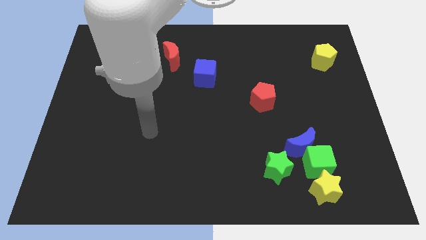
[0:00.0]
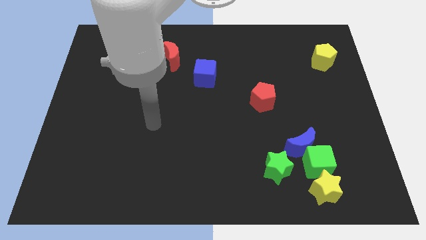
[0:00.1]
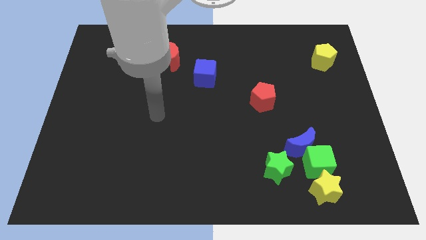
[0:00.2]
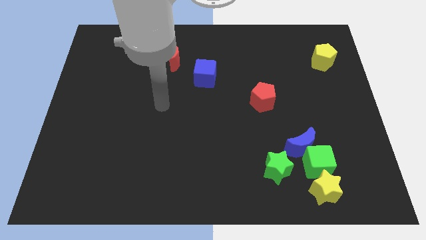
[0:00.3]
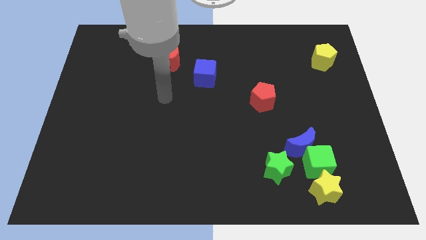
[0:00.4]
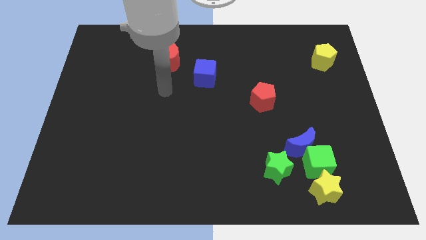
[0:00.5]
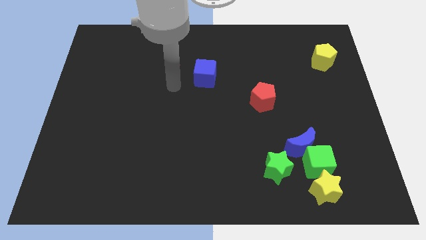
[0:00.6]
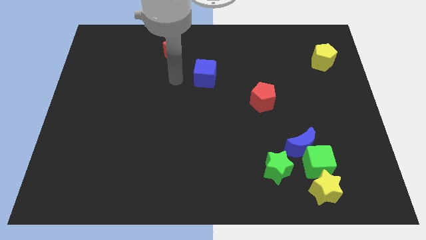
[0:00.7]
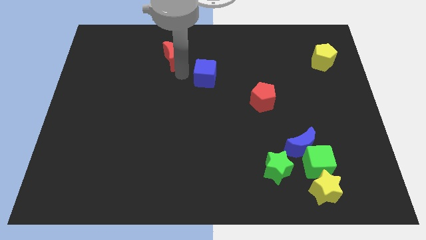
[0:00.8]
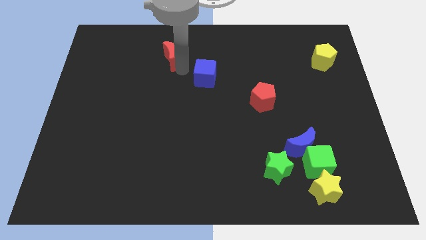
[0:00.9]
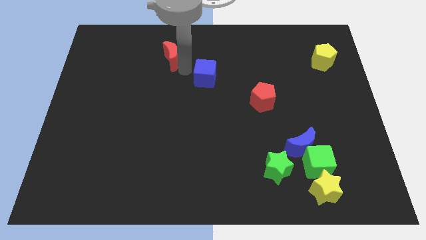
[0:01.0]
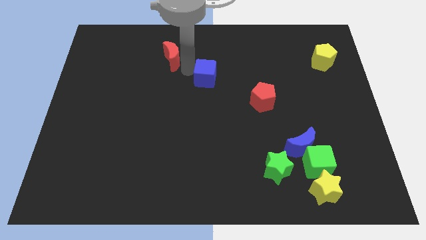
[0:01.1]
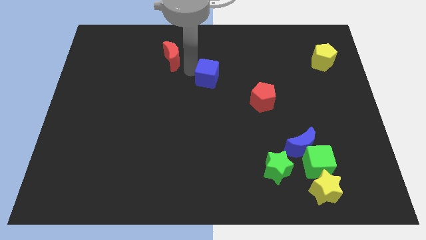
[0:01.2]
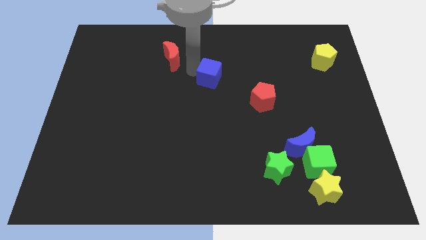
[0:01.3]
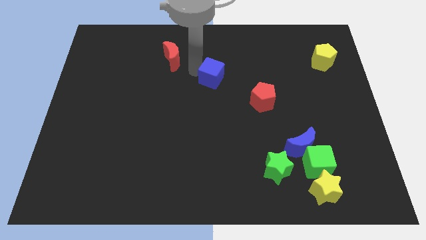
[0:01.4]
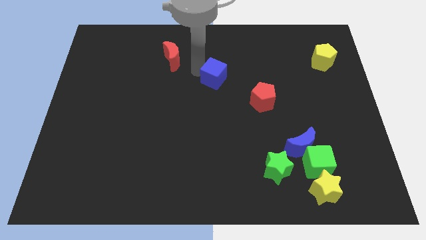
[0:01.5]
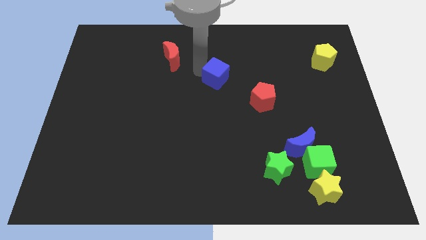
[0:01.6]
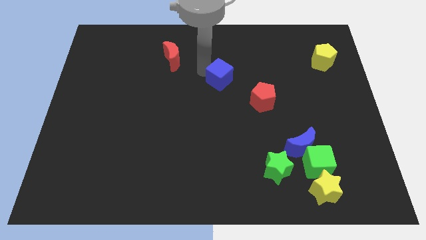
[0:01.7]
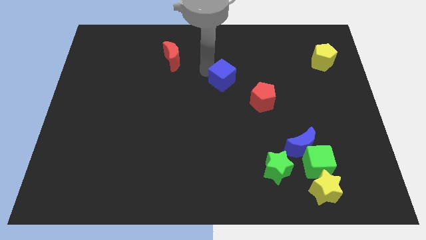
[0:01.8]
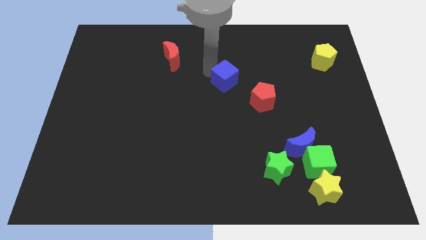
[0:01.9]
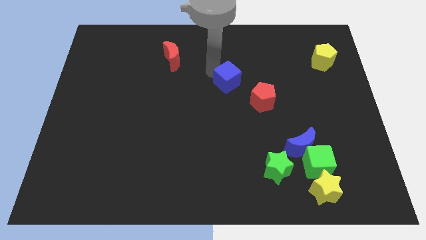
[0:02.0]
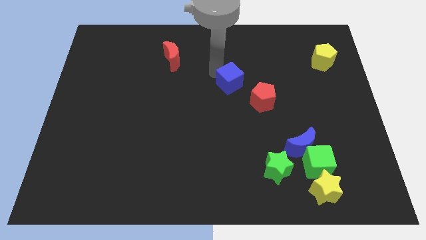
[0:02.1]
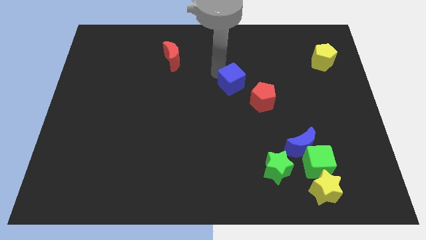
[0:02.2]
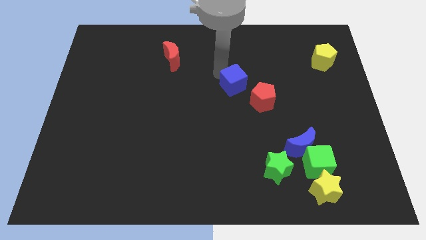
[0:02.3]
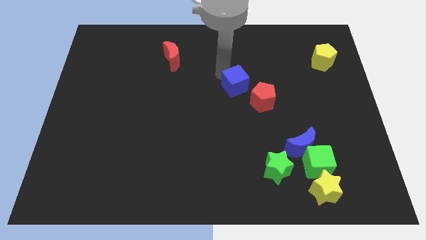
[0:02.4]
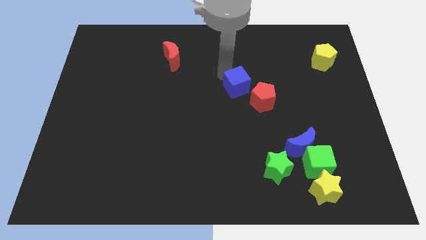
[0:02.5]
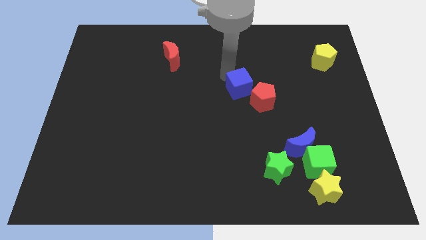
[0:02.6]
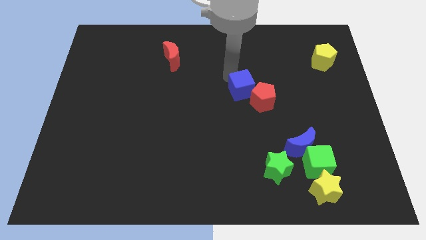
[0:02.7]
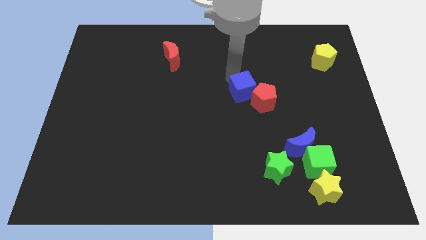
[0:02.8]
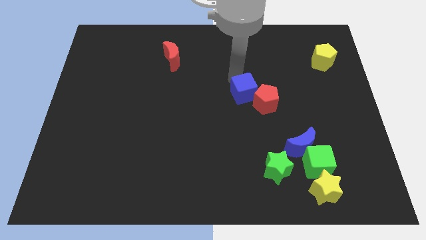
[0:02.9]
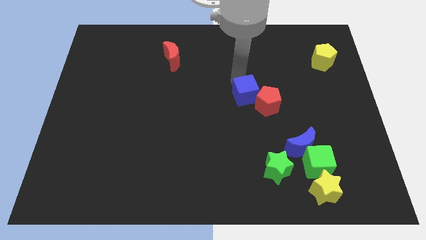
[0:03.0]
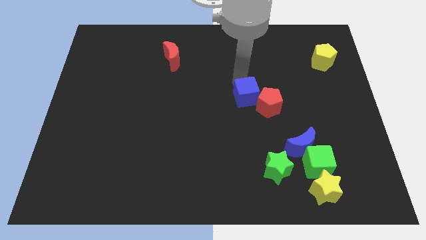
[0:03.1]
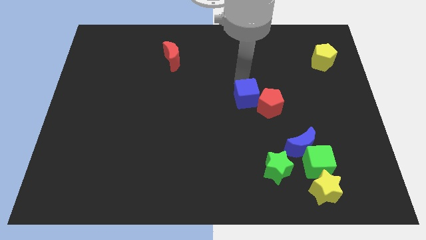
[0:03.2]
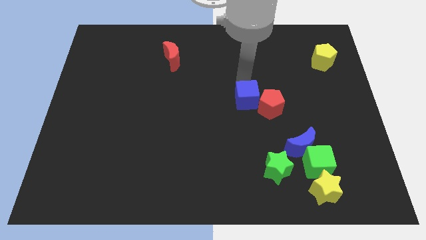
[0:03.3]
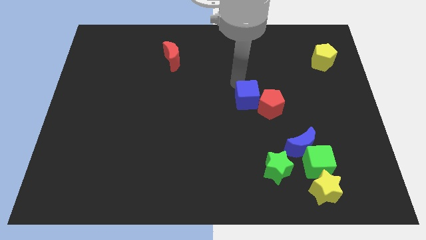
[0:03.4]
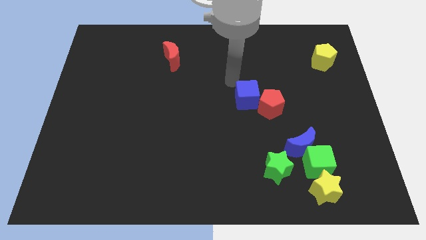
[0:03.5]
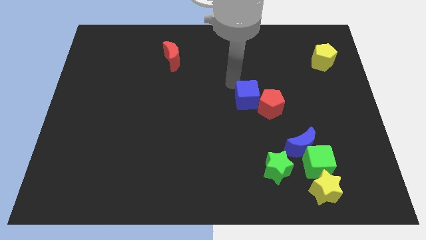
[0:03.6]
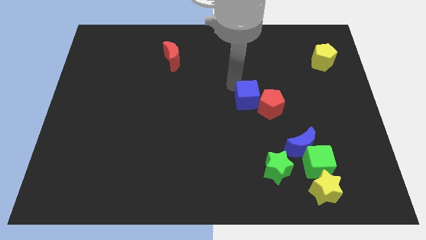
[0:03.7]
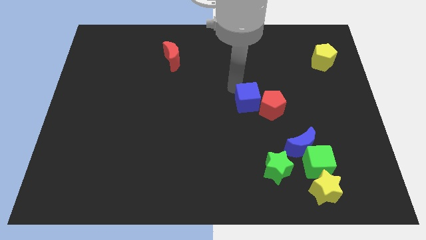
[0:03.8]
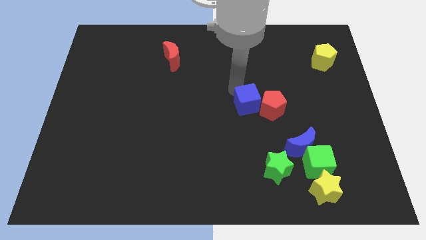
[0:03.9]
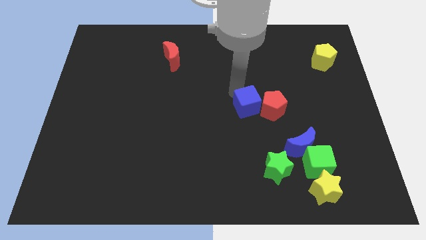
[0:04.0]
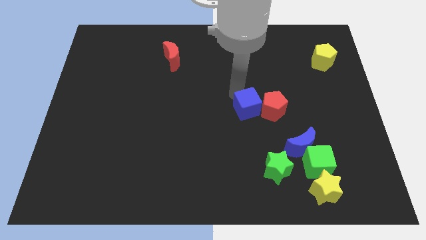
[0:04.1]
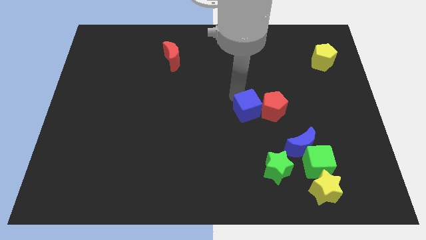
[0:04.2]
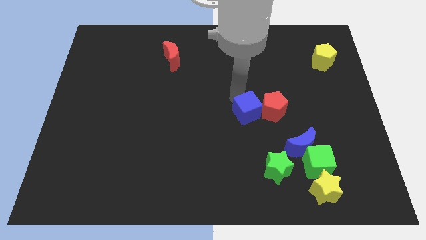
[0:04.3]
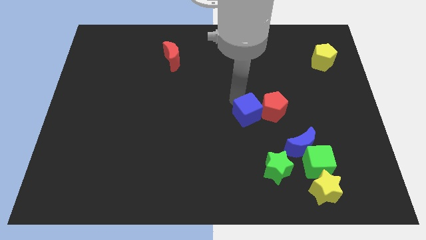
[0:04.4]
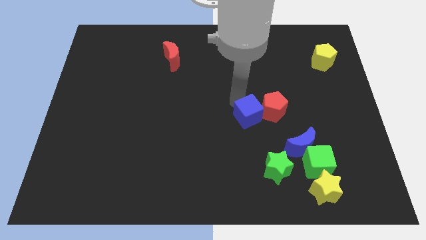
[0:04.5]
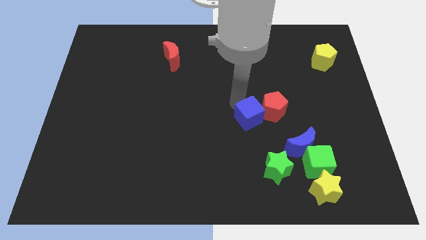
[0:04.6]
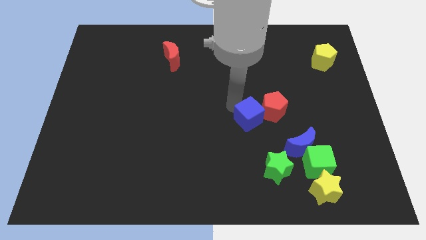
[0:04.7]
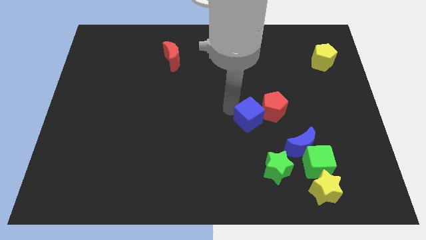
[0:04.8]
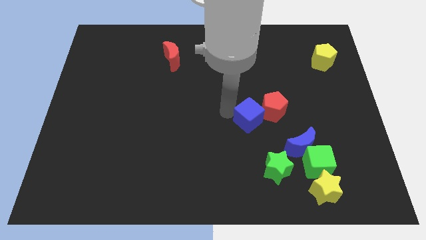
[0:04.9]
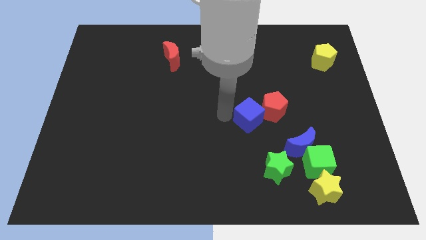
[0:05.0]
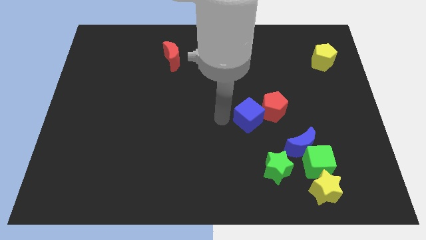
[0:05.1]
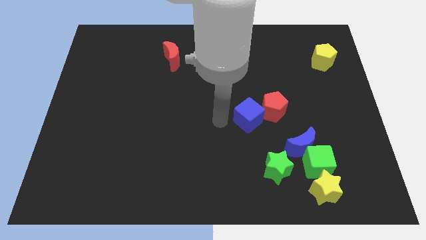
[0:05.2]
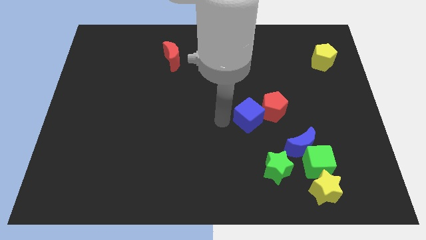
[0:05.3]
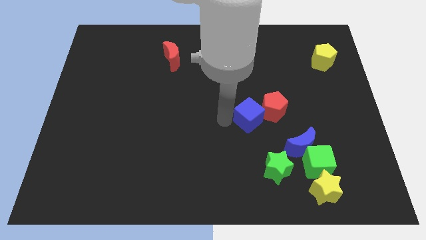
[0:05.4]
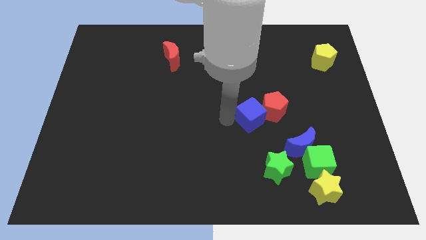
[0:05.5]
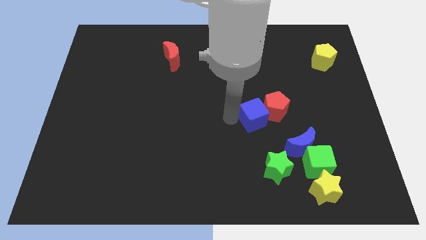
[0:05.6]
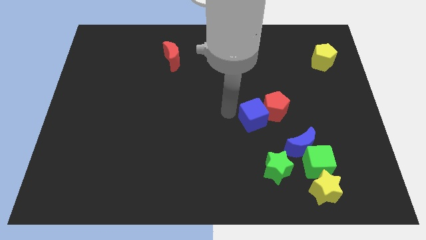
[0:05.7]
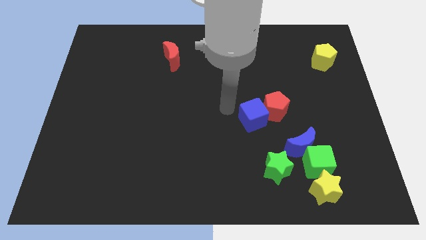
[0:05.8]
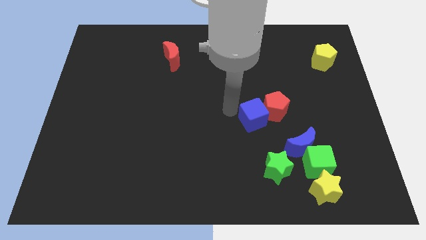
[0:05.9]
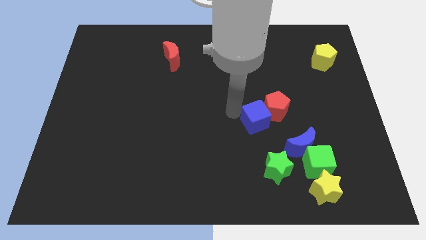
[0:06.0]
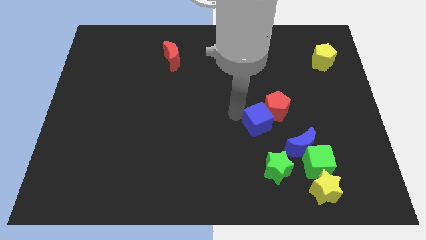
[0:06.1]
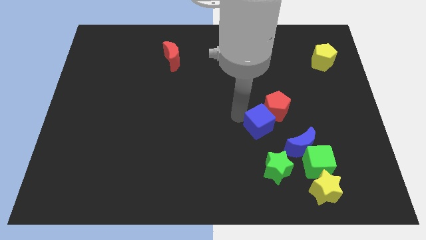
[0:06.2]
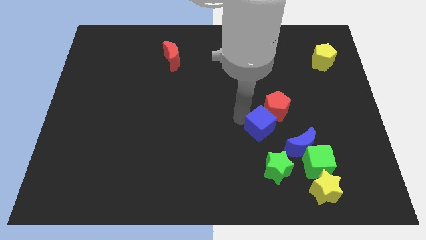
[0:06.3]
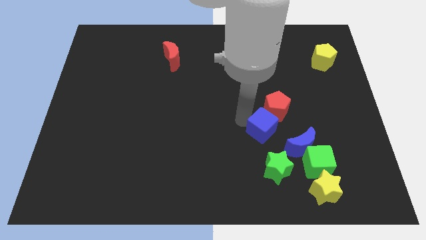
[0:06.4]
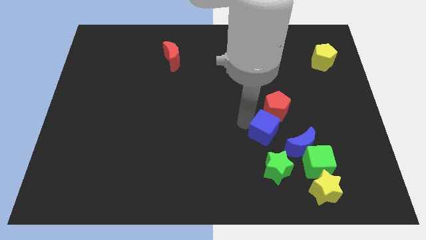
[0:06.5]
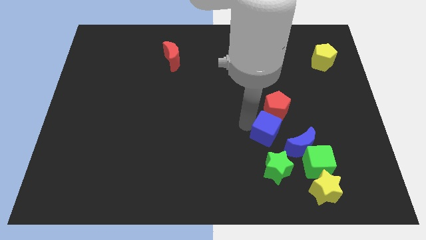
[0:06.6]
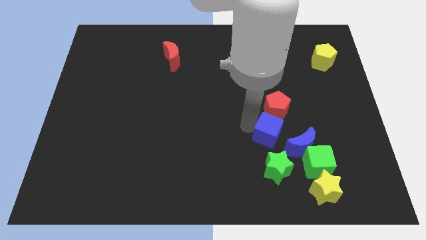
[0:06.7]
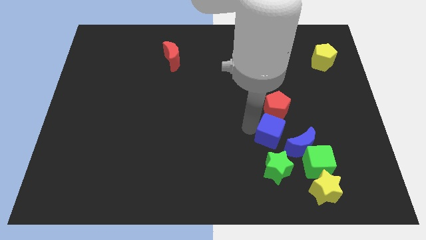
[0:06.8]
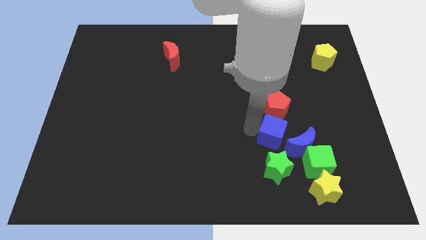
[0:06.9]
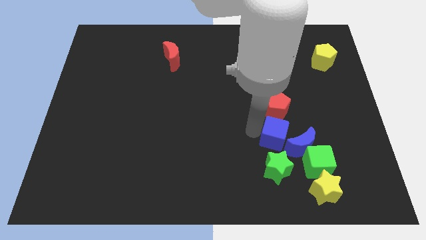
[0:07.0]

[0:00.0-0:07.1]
slide the blue cube close to the blue moon

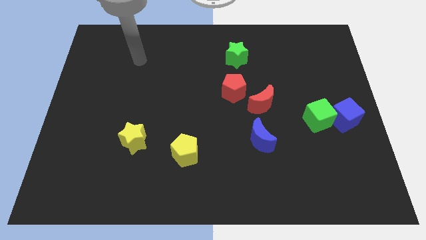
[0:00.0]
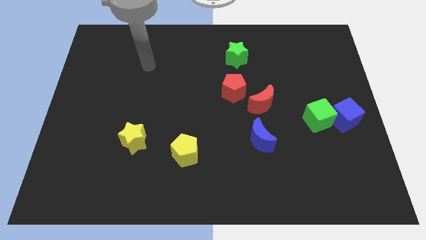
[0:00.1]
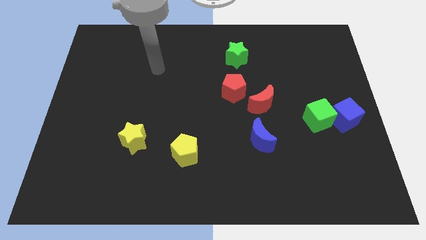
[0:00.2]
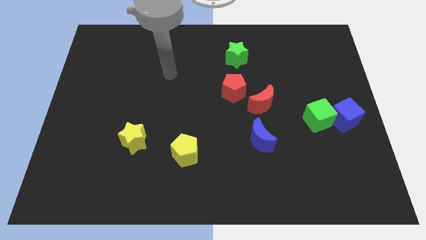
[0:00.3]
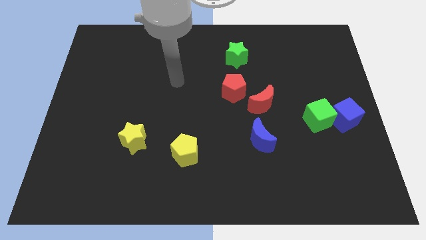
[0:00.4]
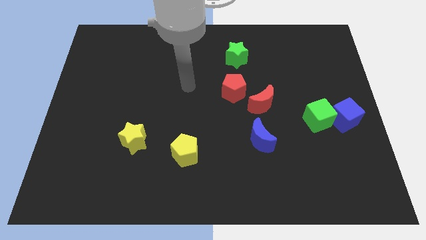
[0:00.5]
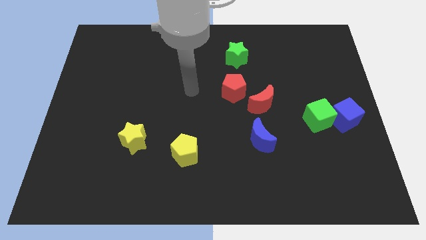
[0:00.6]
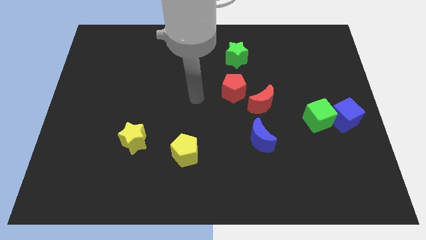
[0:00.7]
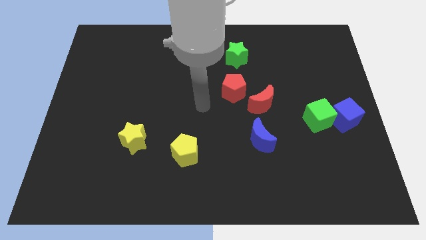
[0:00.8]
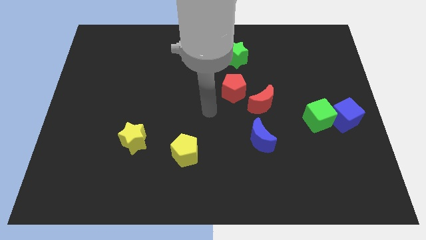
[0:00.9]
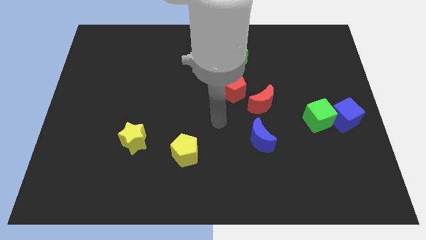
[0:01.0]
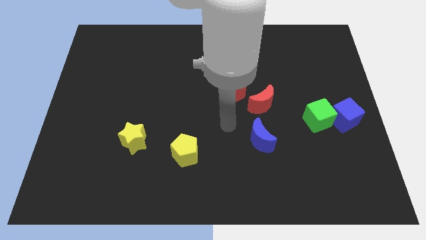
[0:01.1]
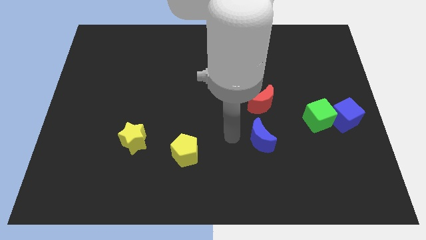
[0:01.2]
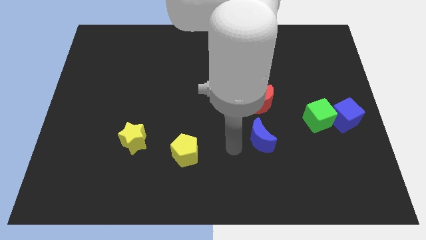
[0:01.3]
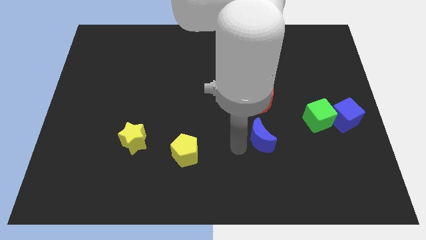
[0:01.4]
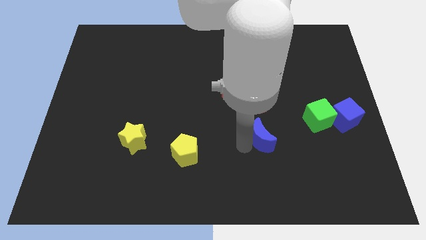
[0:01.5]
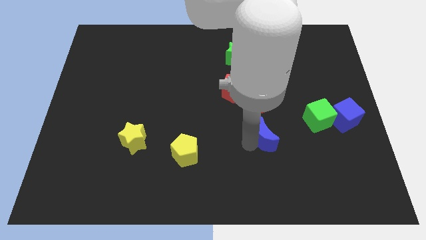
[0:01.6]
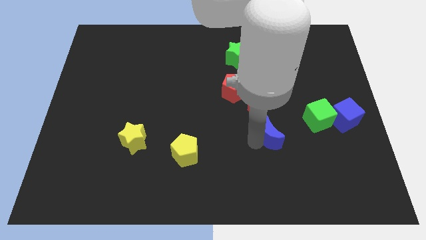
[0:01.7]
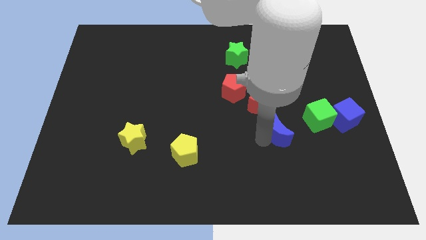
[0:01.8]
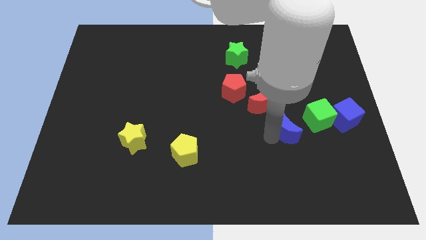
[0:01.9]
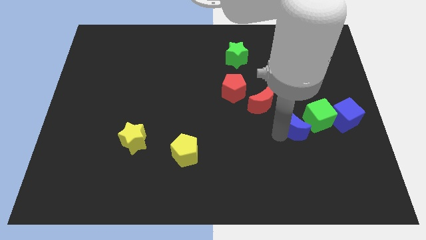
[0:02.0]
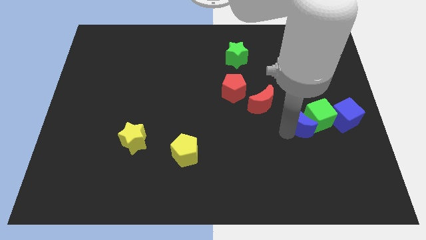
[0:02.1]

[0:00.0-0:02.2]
move the blue moon next to the green cube
